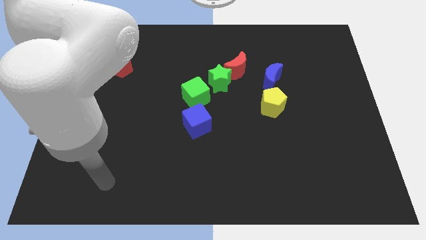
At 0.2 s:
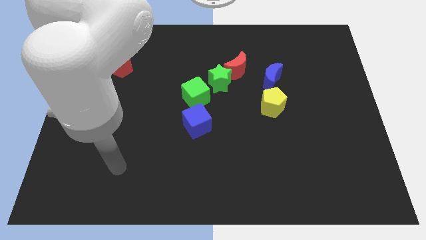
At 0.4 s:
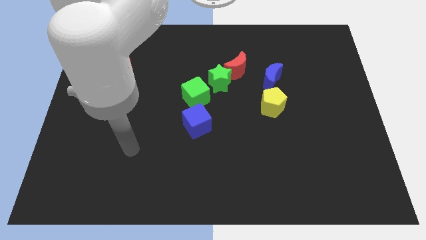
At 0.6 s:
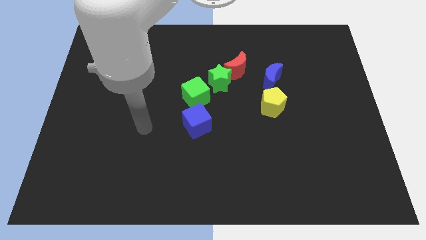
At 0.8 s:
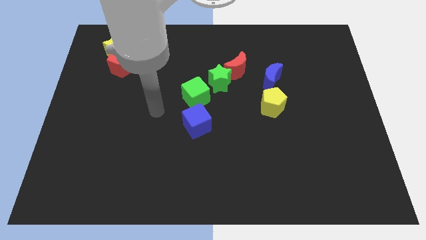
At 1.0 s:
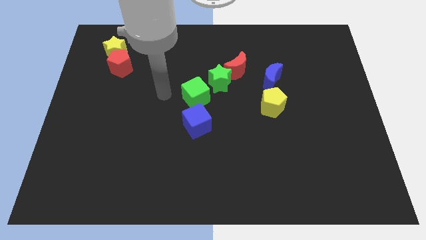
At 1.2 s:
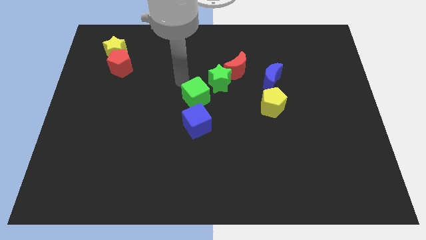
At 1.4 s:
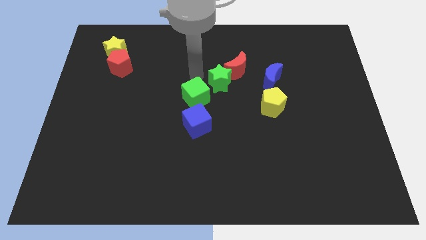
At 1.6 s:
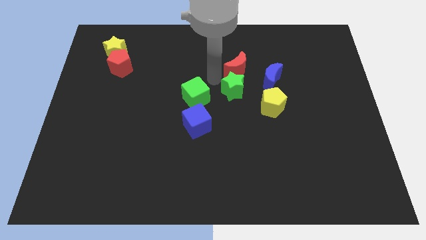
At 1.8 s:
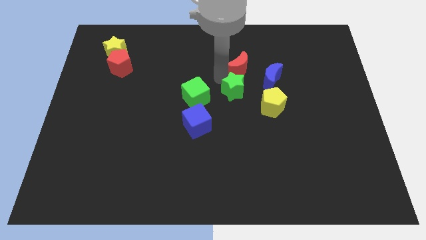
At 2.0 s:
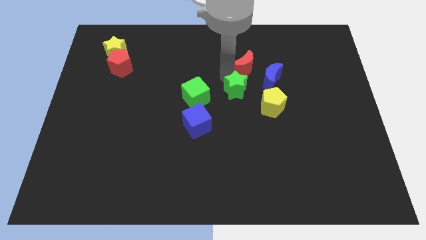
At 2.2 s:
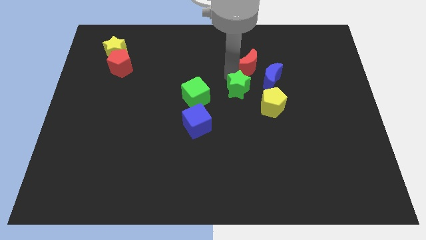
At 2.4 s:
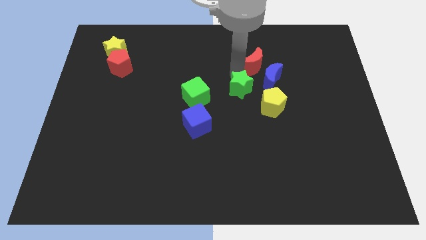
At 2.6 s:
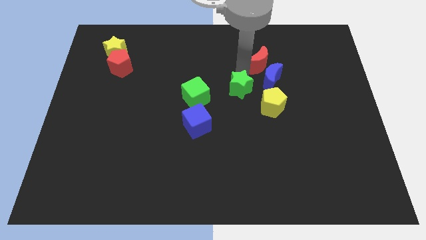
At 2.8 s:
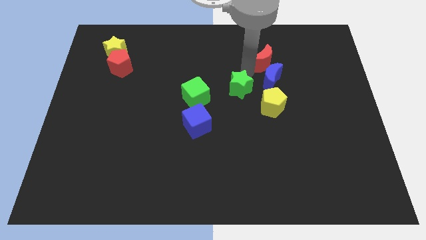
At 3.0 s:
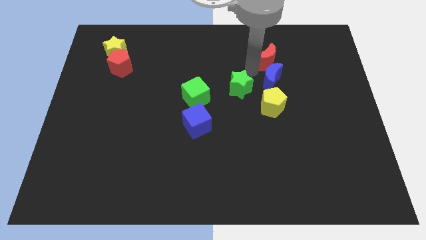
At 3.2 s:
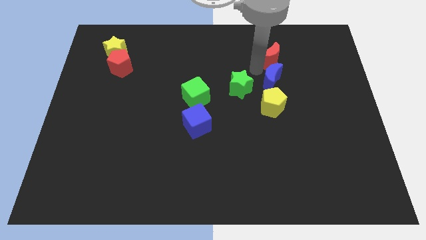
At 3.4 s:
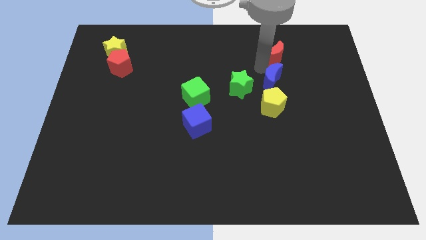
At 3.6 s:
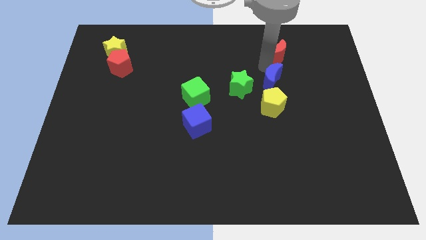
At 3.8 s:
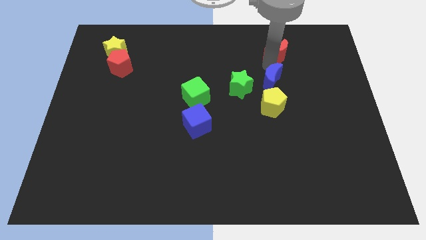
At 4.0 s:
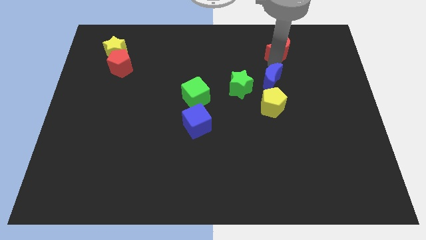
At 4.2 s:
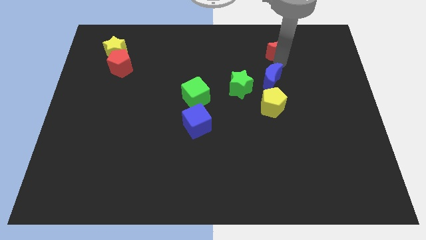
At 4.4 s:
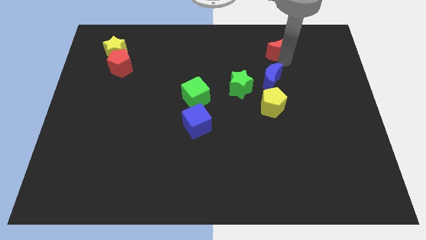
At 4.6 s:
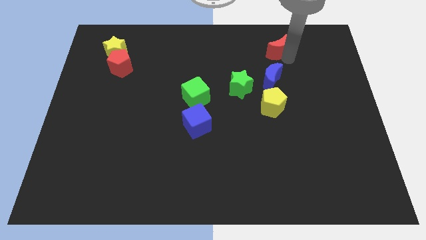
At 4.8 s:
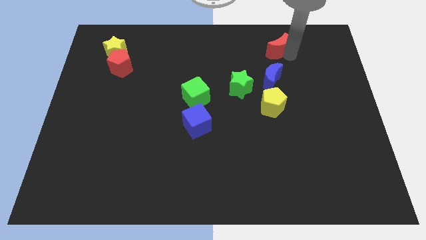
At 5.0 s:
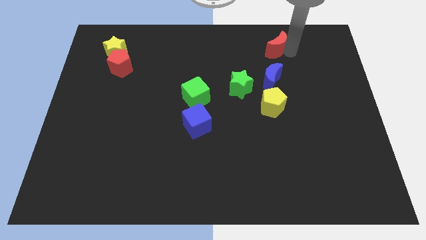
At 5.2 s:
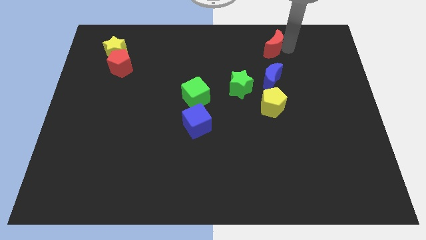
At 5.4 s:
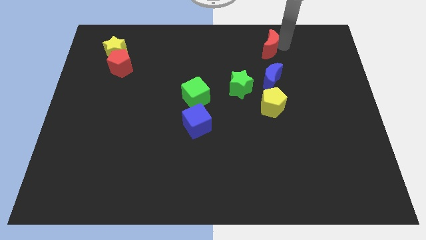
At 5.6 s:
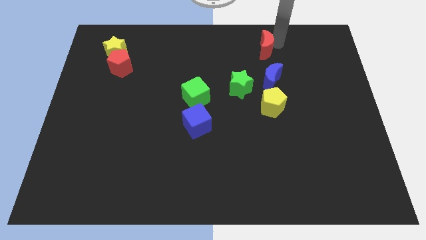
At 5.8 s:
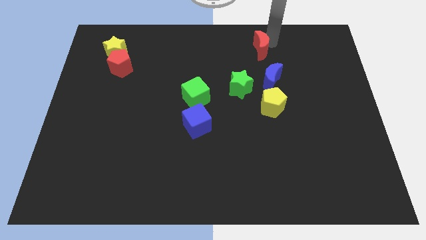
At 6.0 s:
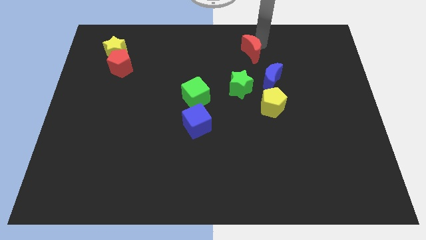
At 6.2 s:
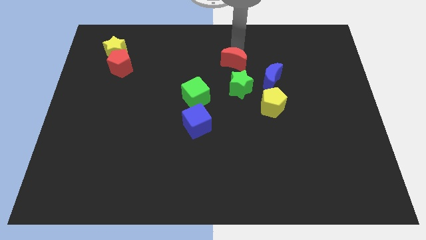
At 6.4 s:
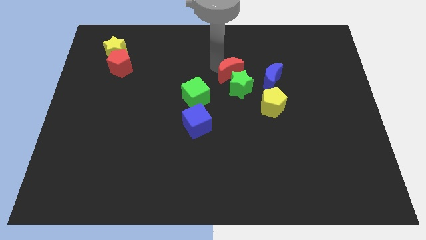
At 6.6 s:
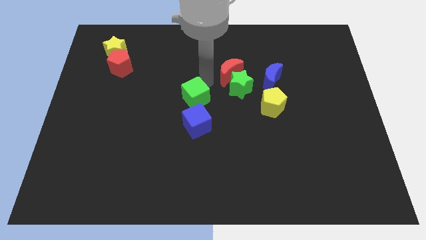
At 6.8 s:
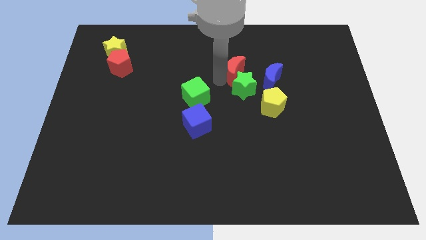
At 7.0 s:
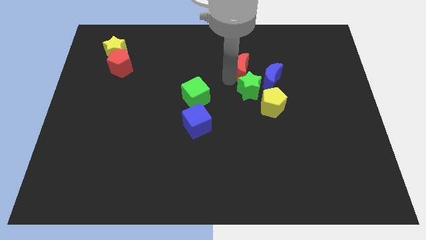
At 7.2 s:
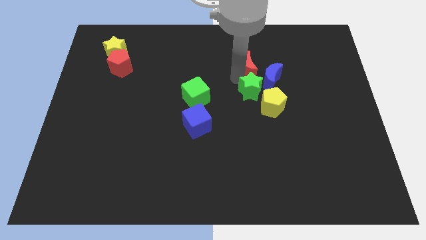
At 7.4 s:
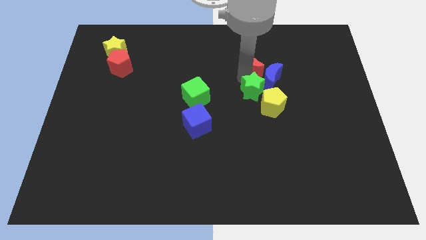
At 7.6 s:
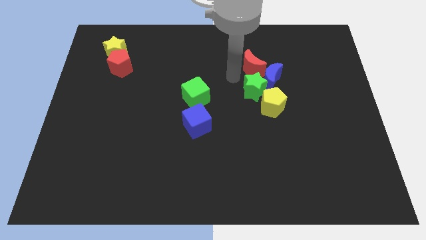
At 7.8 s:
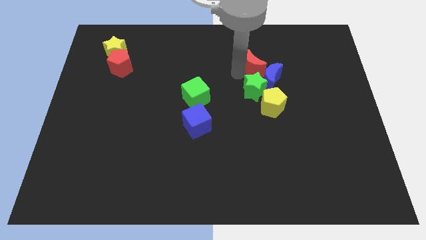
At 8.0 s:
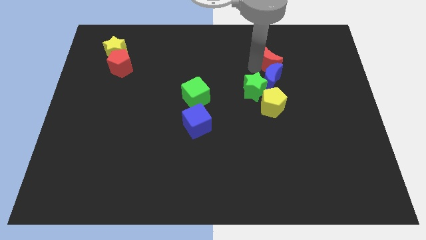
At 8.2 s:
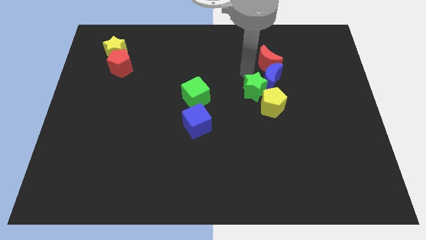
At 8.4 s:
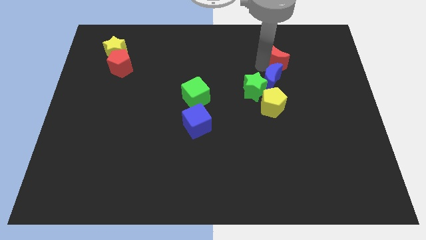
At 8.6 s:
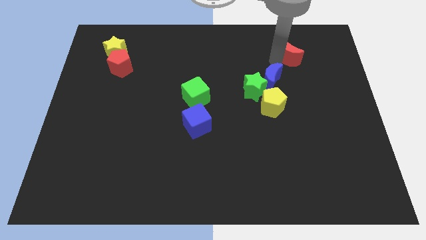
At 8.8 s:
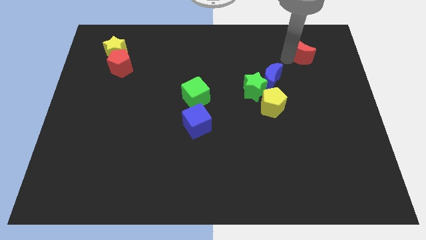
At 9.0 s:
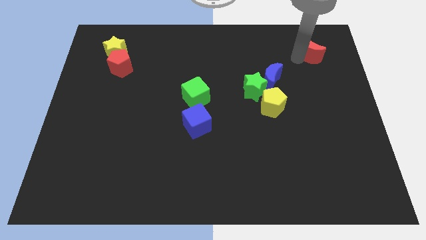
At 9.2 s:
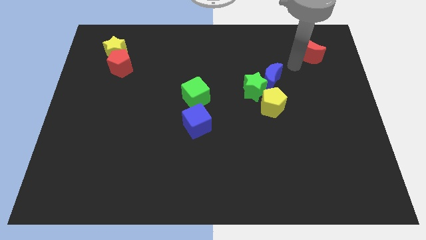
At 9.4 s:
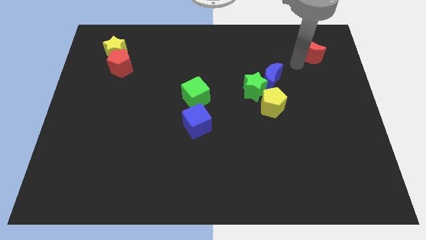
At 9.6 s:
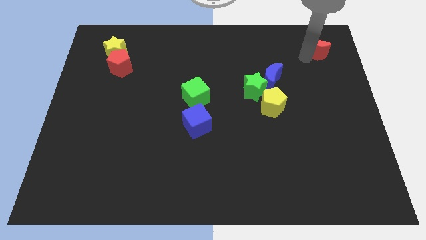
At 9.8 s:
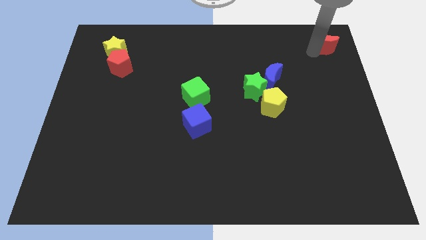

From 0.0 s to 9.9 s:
push the red moon to the top right of the board

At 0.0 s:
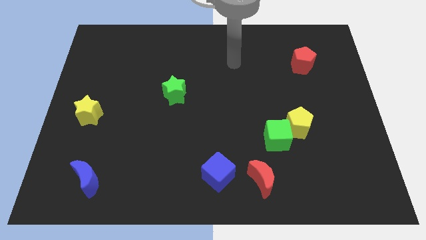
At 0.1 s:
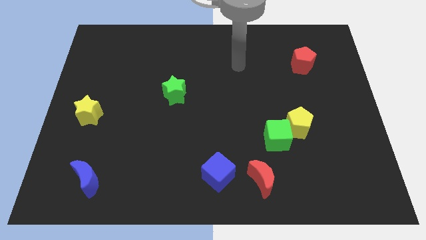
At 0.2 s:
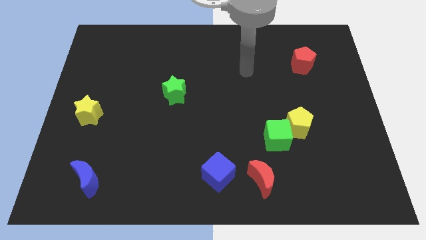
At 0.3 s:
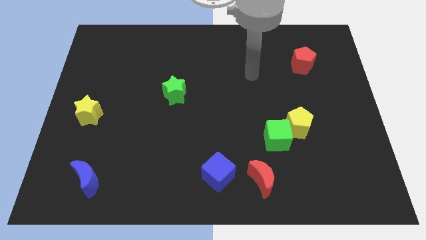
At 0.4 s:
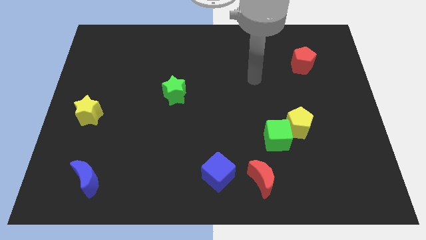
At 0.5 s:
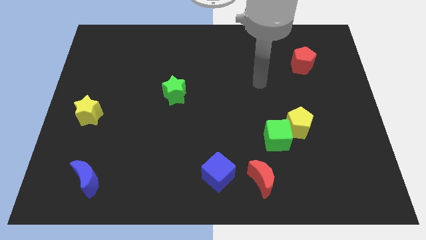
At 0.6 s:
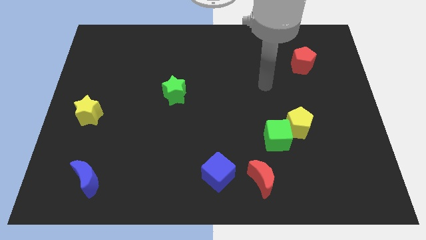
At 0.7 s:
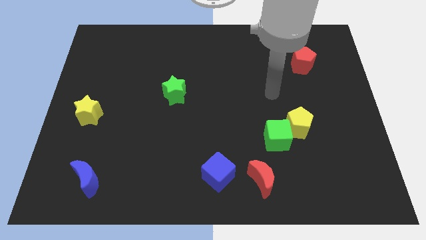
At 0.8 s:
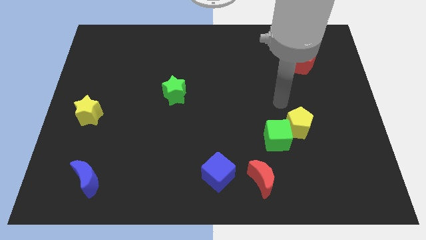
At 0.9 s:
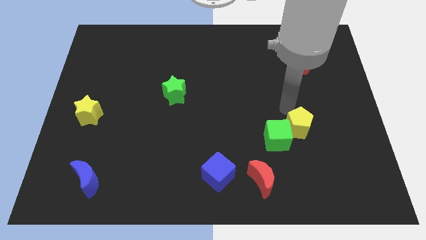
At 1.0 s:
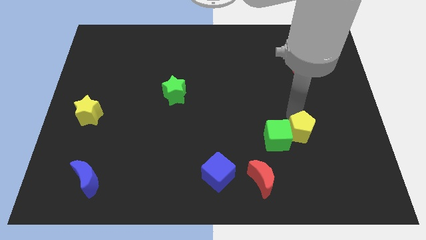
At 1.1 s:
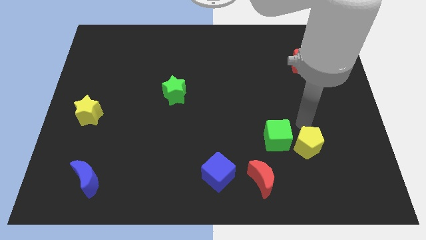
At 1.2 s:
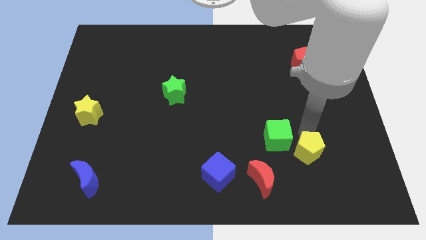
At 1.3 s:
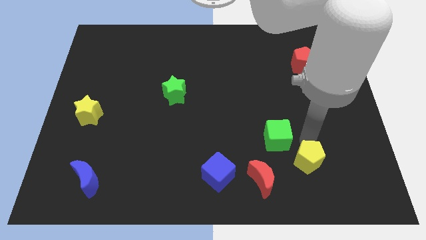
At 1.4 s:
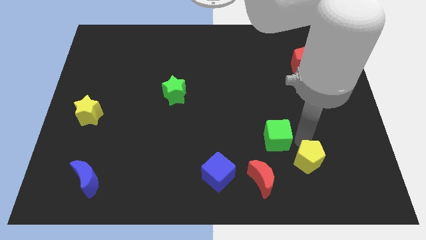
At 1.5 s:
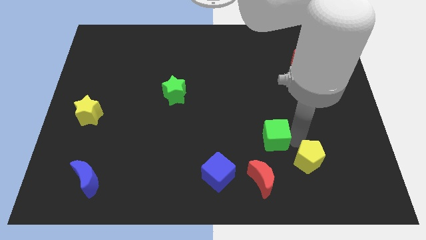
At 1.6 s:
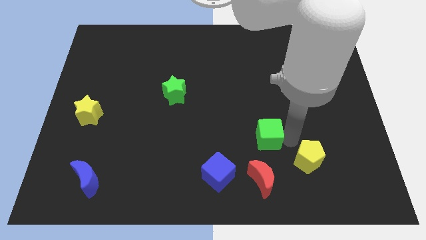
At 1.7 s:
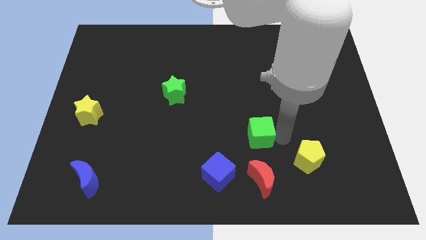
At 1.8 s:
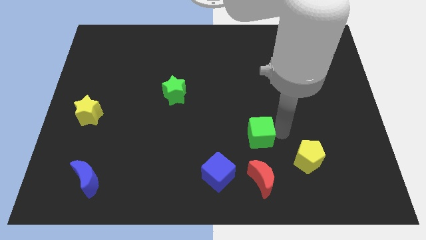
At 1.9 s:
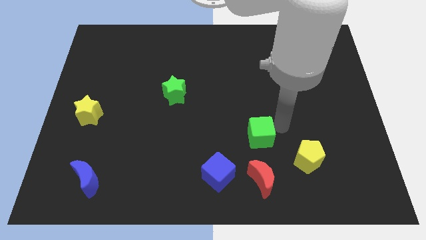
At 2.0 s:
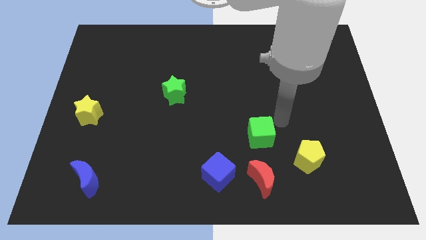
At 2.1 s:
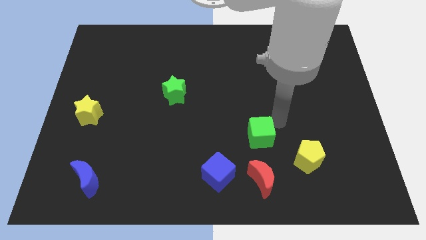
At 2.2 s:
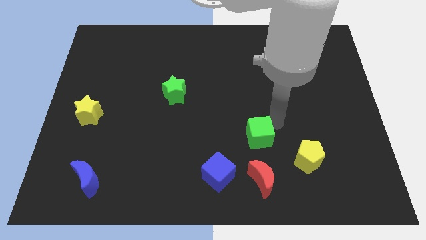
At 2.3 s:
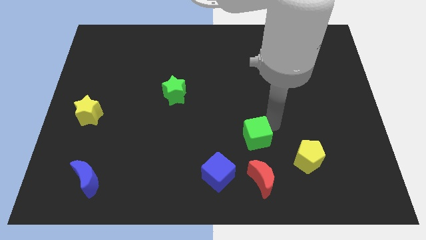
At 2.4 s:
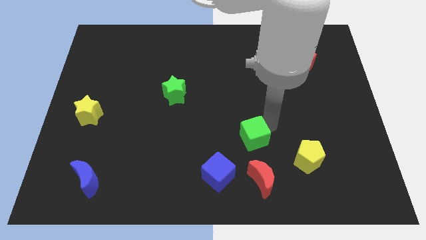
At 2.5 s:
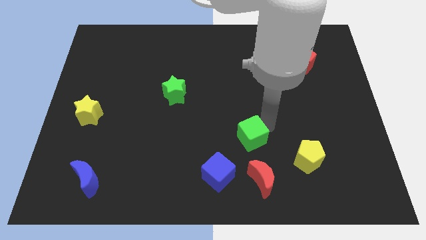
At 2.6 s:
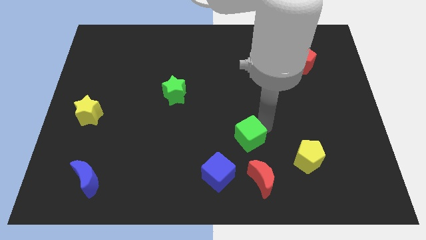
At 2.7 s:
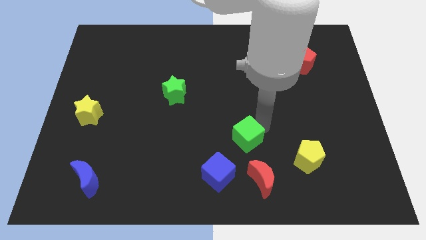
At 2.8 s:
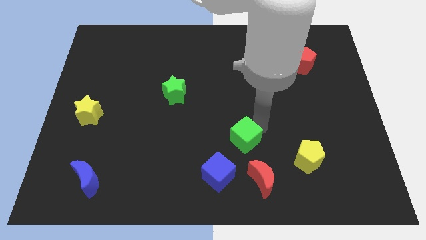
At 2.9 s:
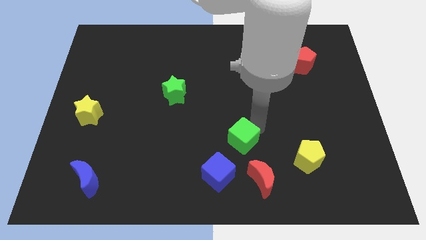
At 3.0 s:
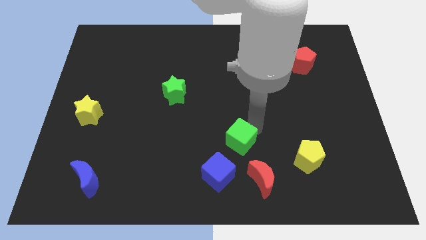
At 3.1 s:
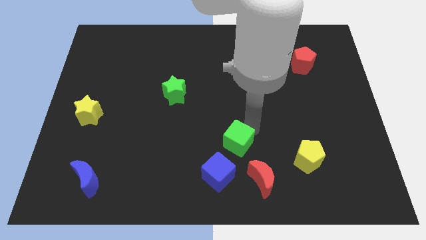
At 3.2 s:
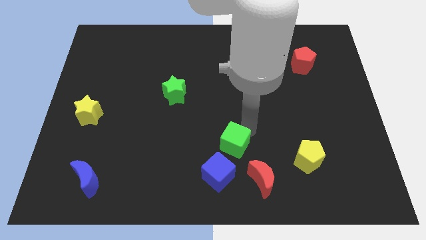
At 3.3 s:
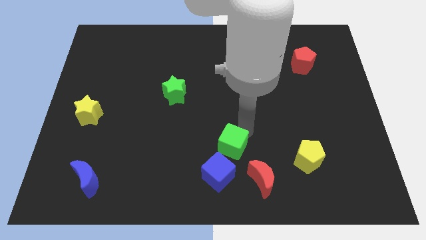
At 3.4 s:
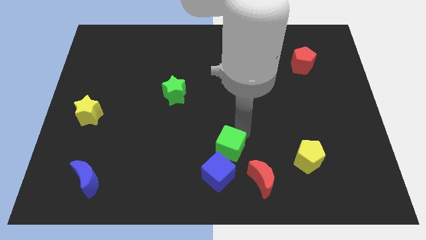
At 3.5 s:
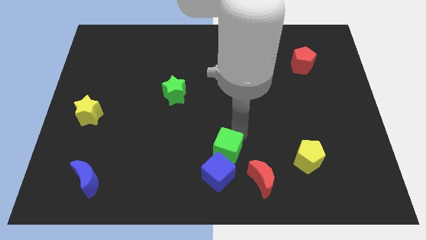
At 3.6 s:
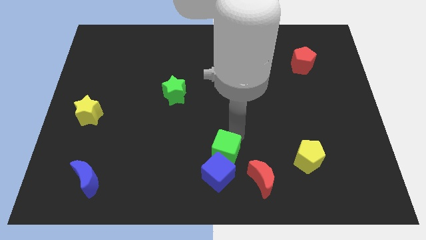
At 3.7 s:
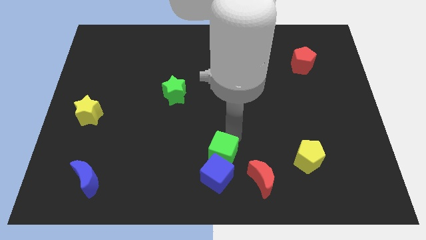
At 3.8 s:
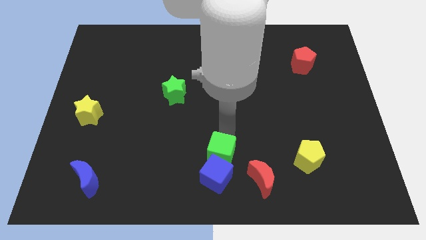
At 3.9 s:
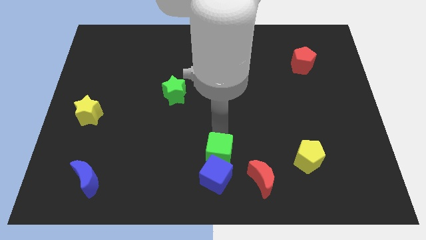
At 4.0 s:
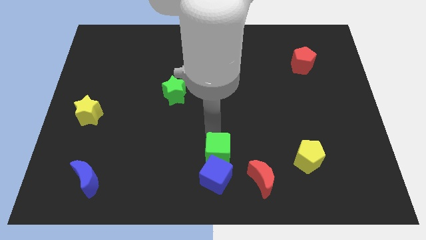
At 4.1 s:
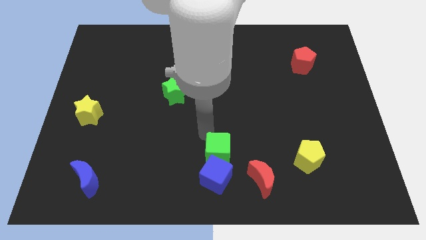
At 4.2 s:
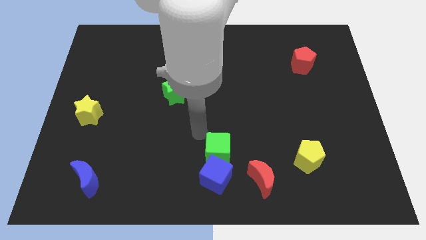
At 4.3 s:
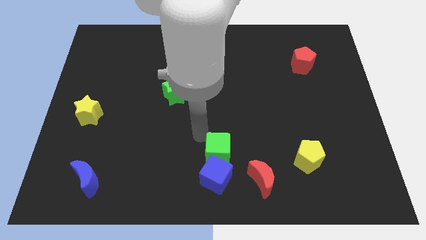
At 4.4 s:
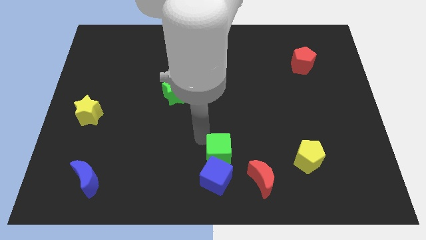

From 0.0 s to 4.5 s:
put the green cube to the bottom side
